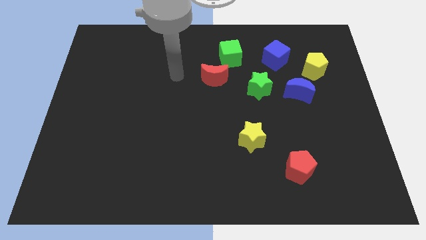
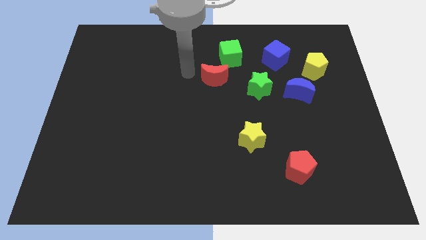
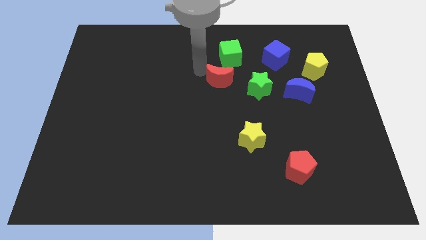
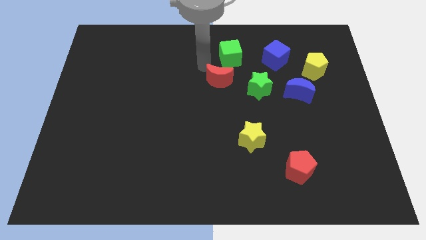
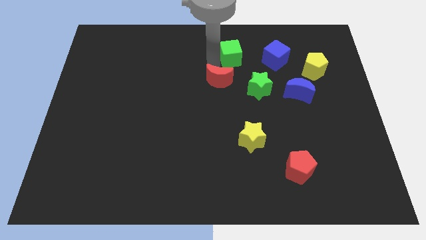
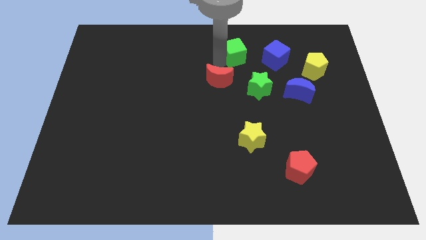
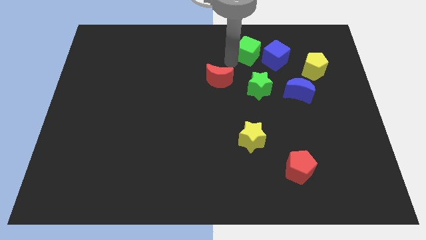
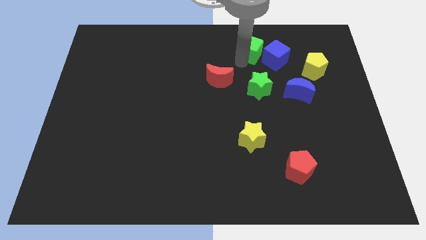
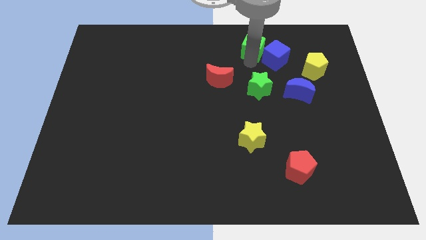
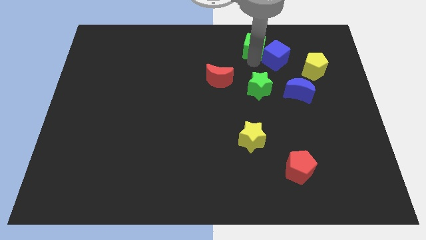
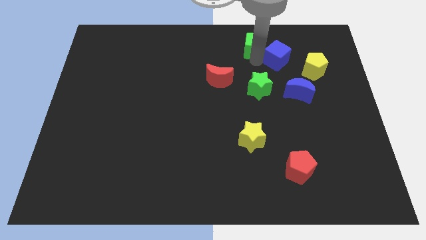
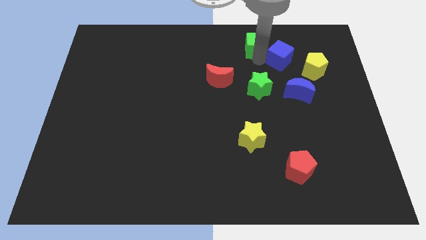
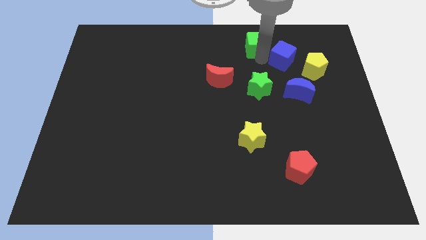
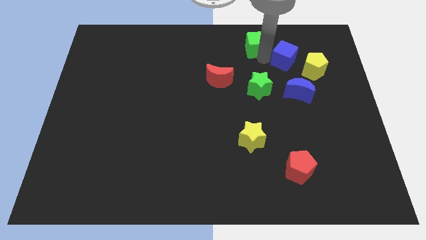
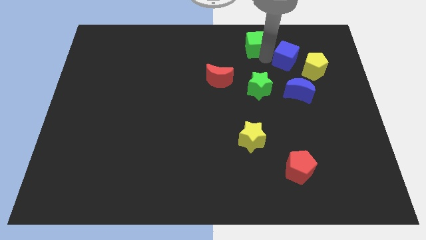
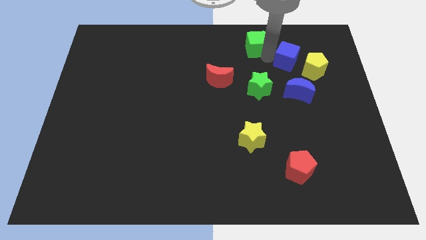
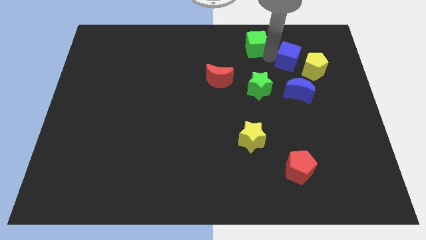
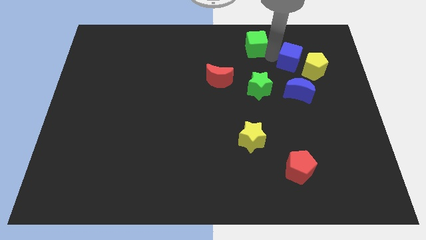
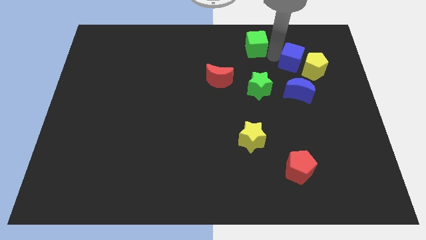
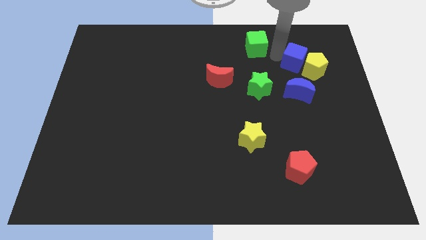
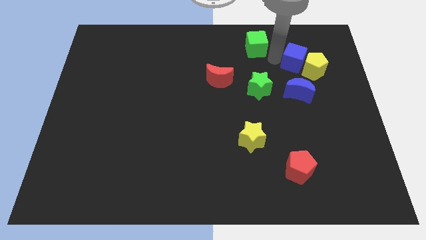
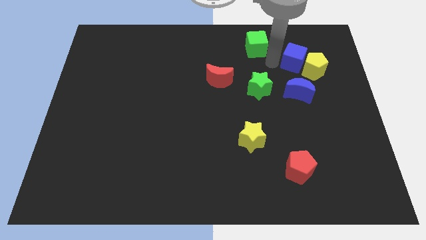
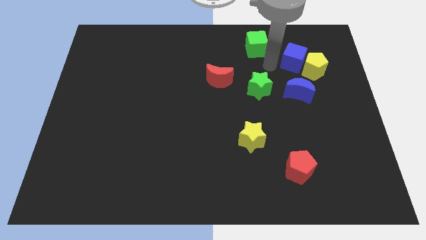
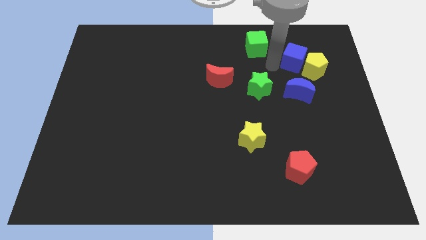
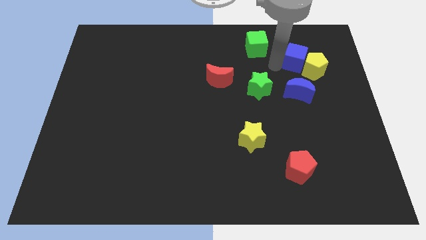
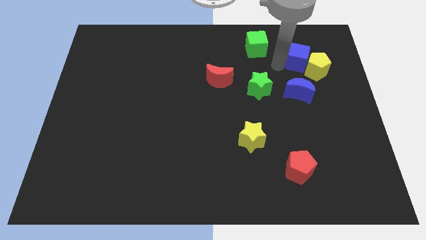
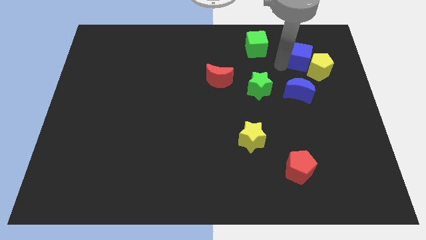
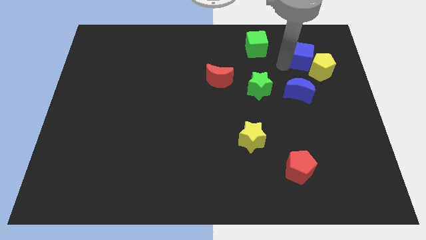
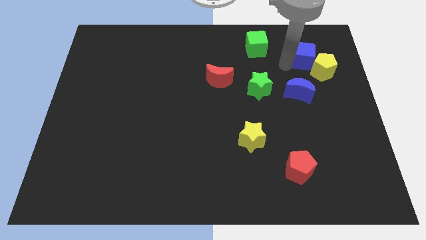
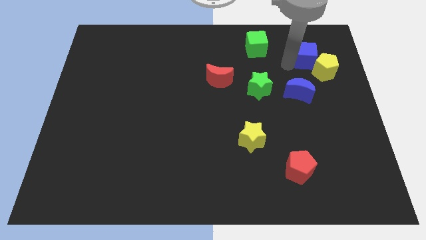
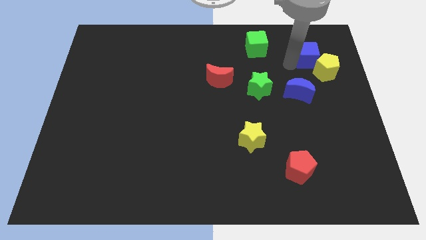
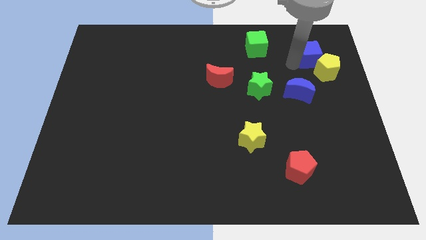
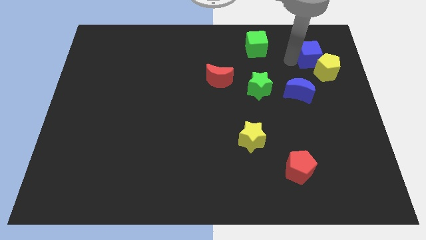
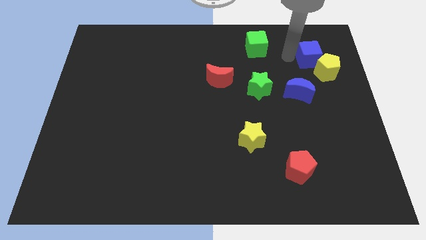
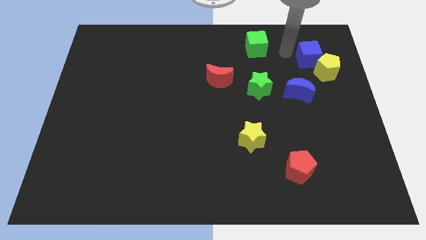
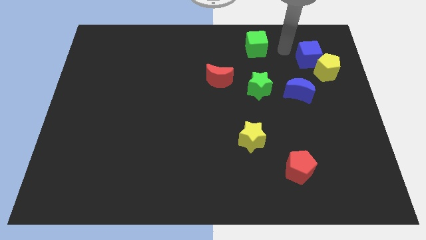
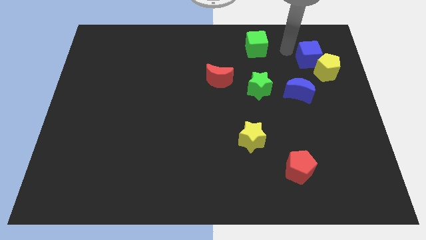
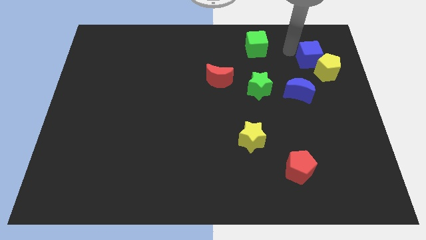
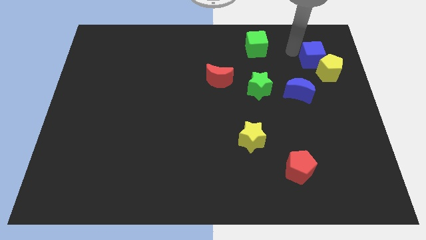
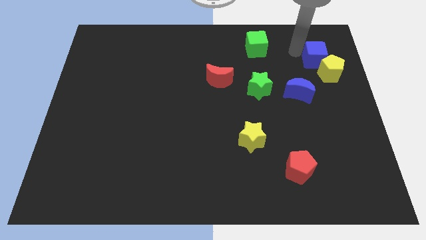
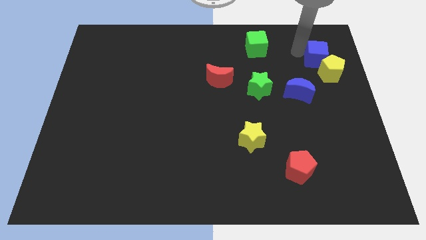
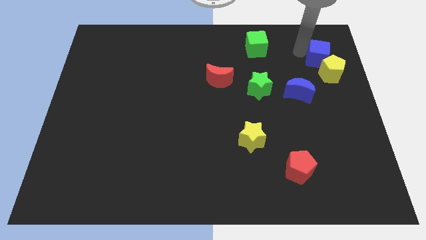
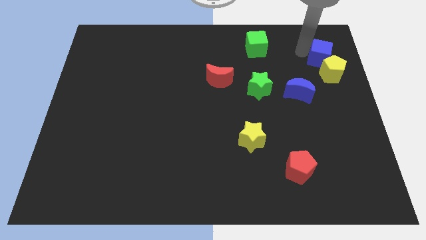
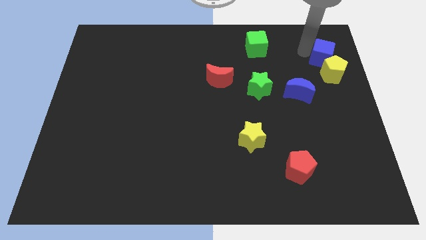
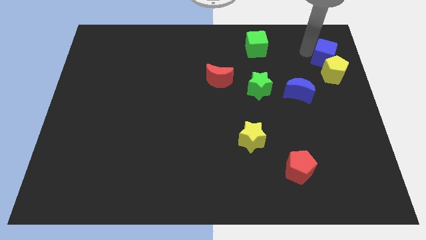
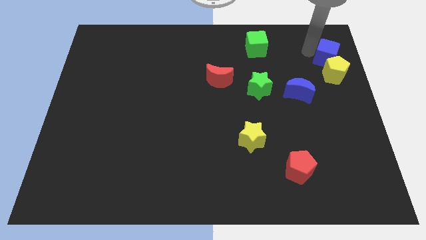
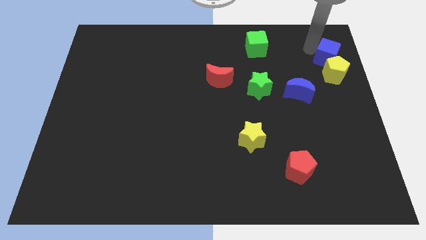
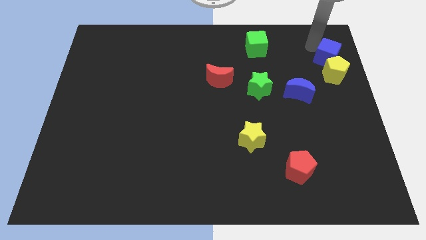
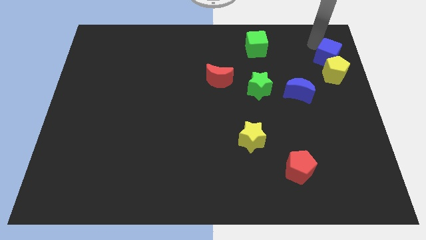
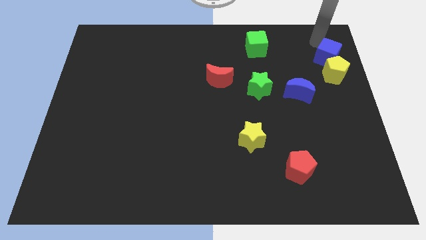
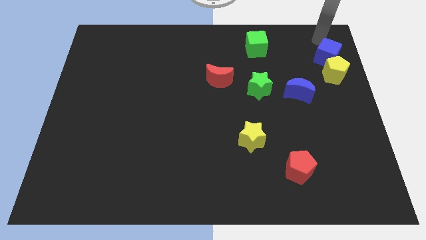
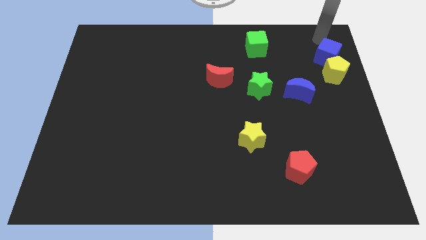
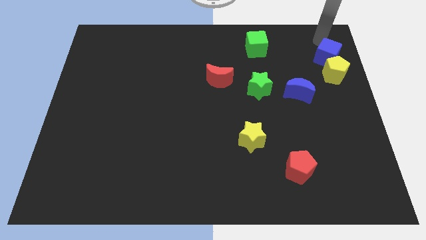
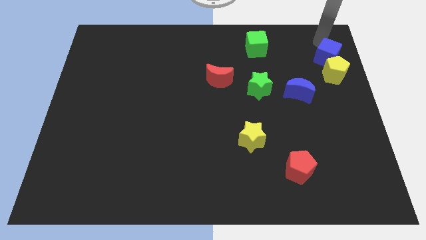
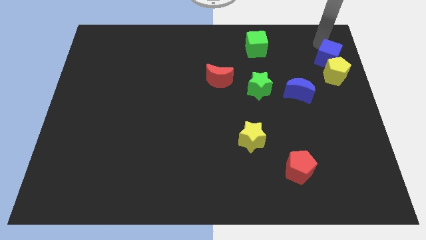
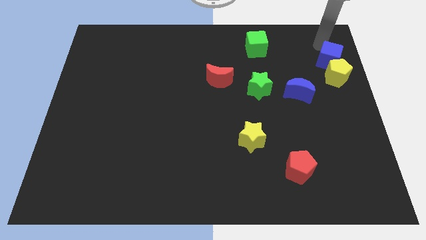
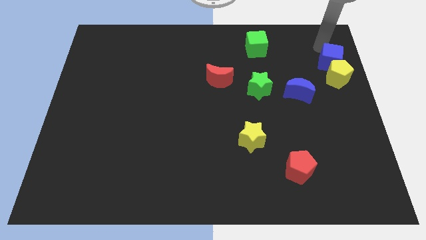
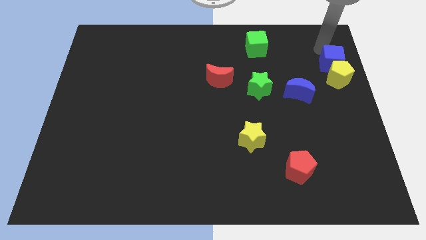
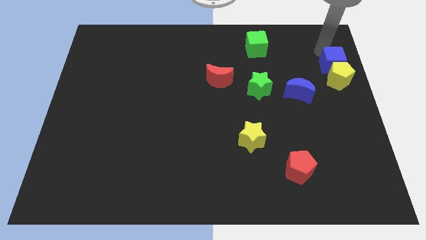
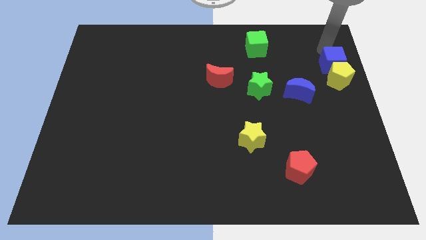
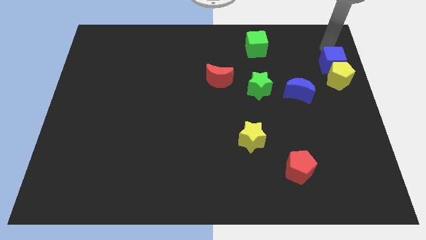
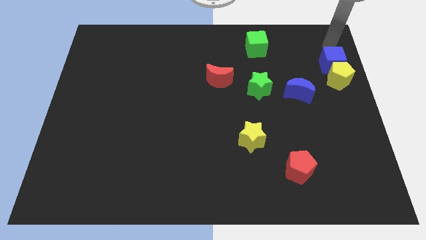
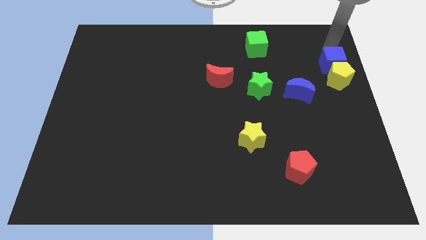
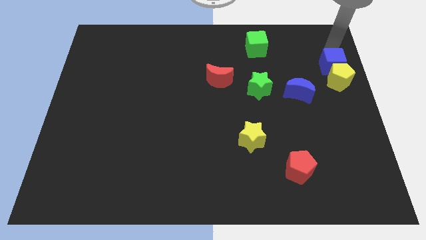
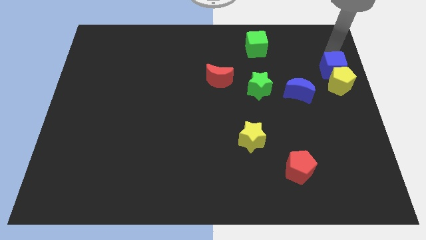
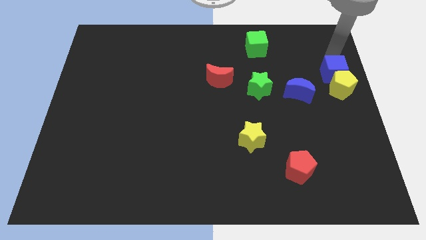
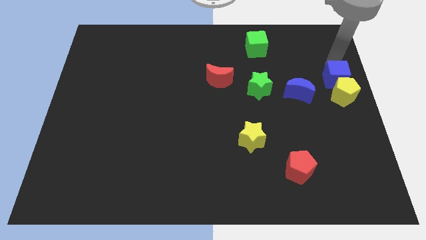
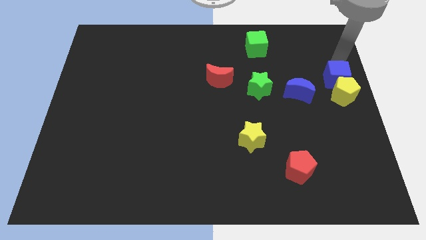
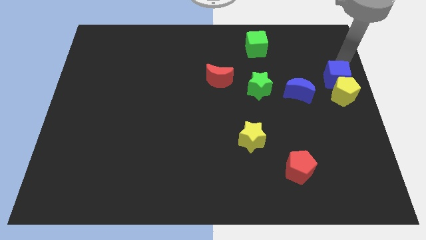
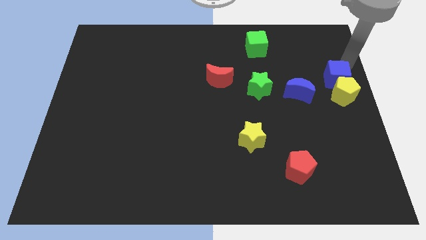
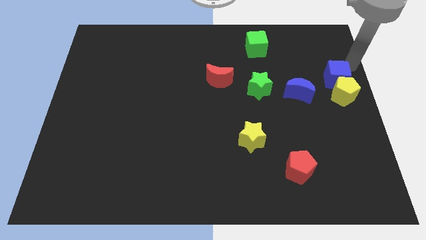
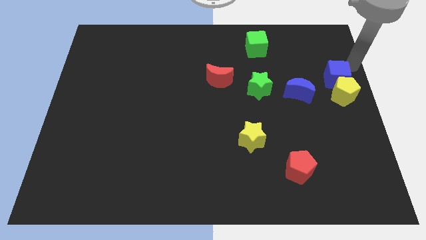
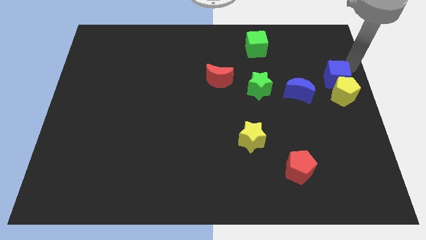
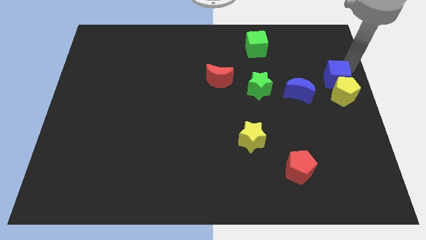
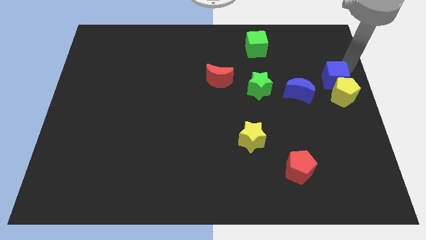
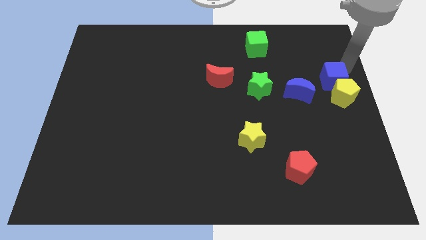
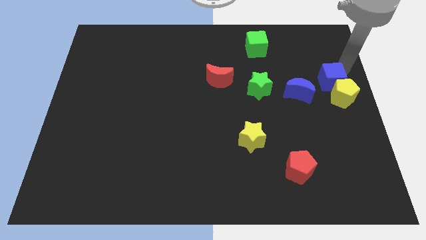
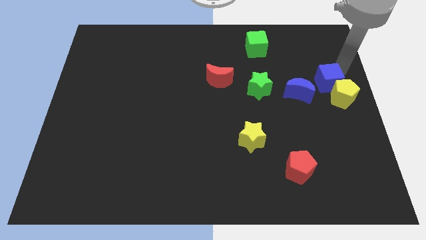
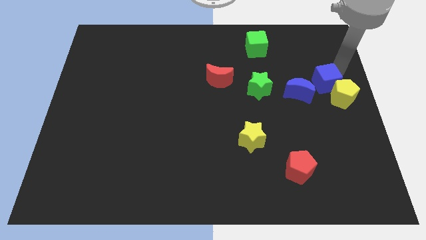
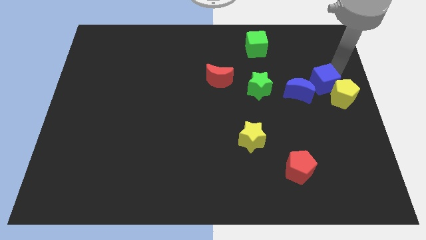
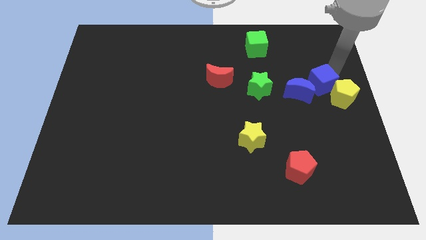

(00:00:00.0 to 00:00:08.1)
slide the blue cube just right of the green star
